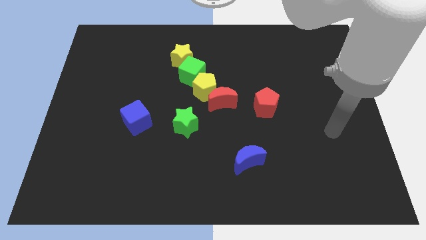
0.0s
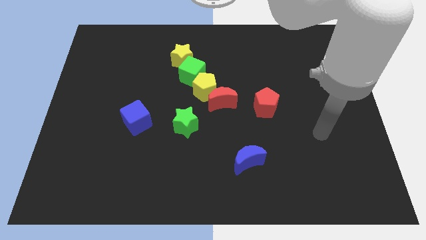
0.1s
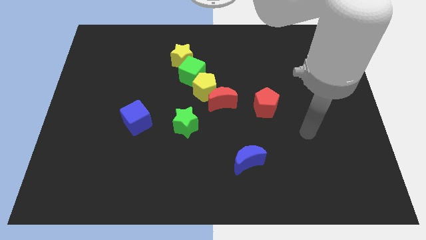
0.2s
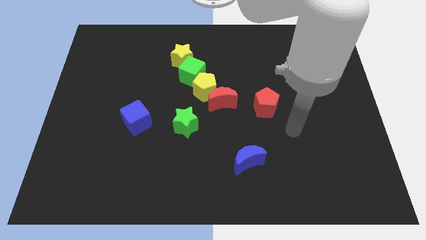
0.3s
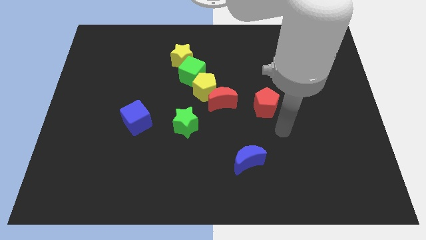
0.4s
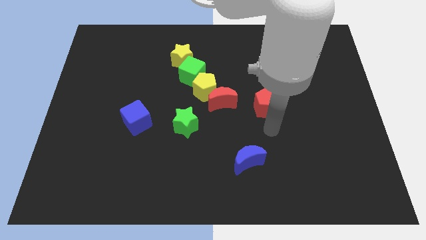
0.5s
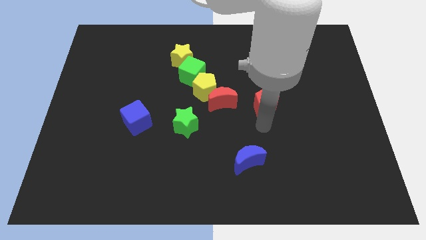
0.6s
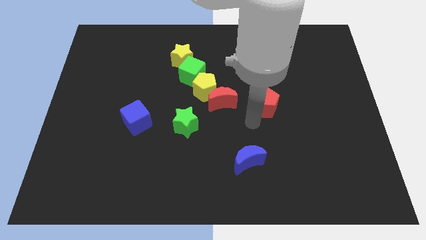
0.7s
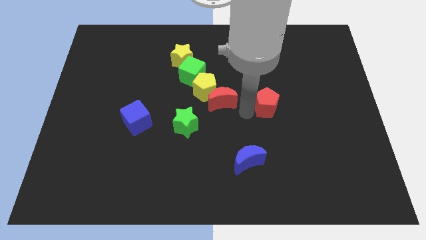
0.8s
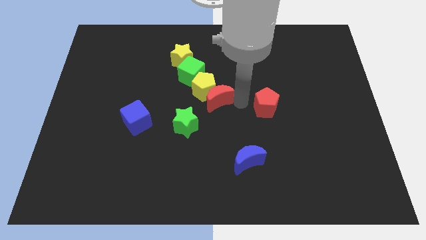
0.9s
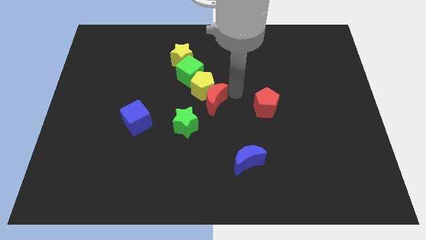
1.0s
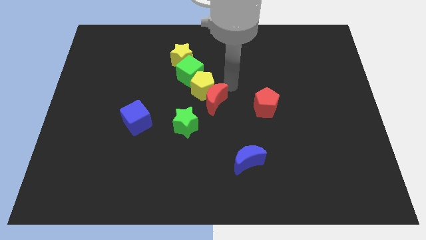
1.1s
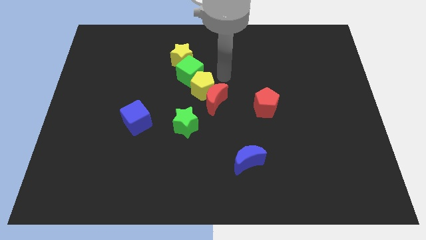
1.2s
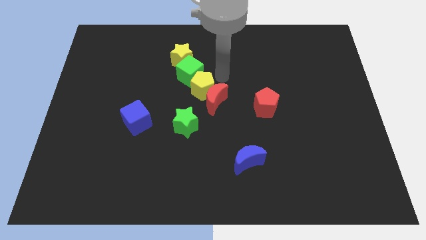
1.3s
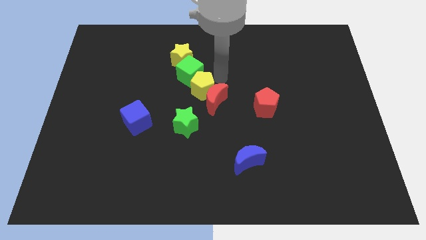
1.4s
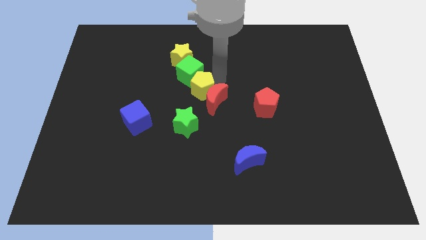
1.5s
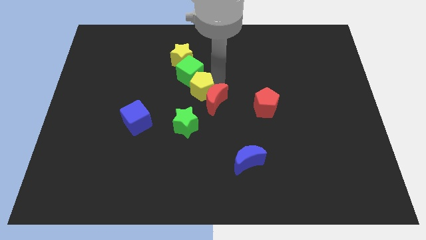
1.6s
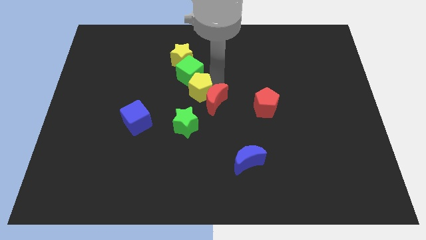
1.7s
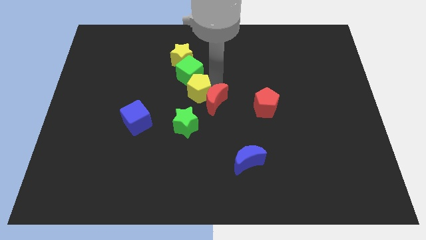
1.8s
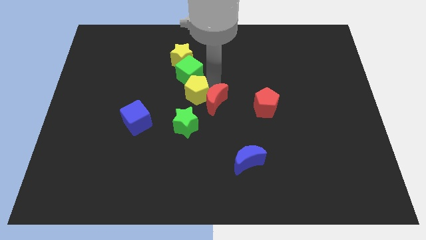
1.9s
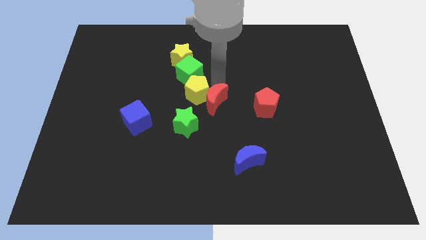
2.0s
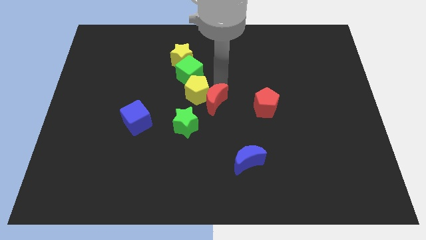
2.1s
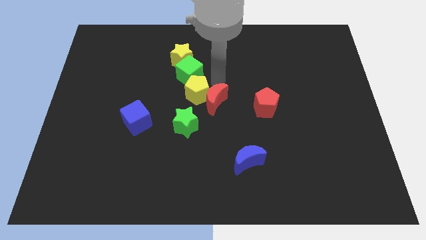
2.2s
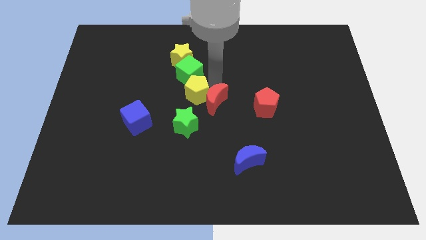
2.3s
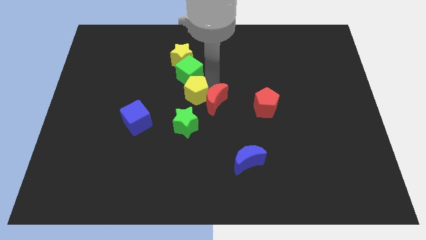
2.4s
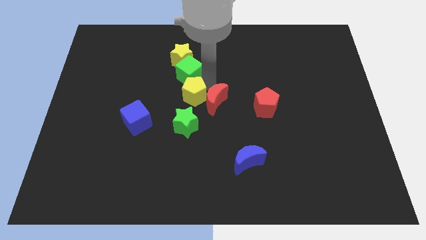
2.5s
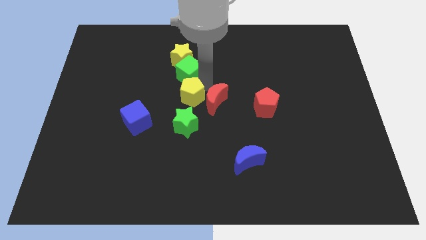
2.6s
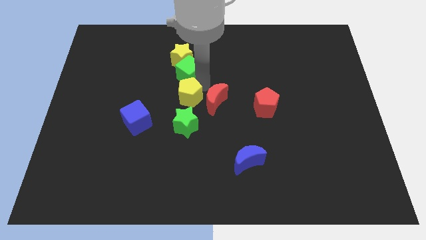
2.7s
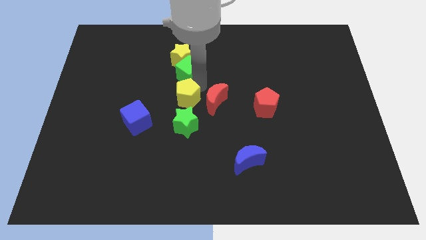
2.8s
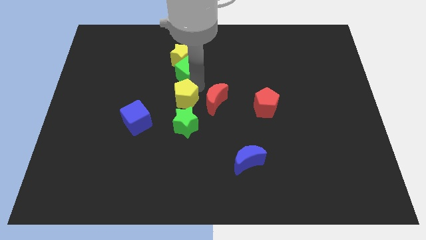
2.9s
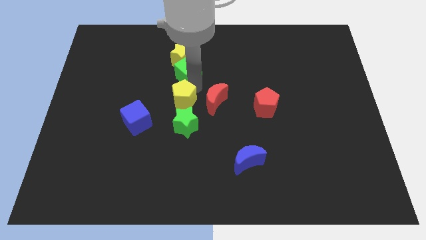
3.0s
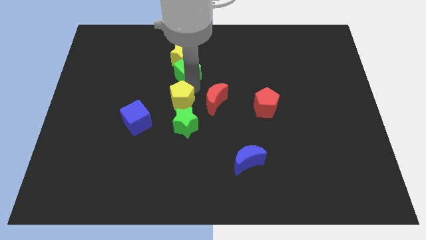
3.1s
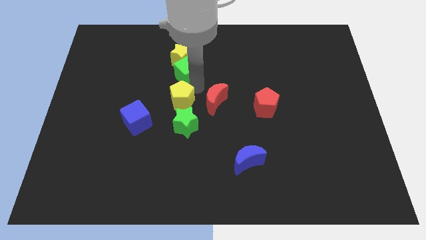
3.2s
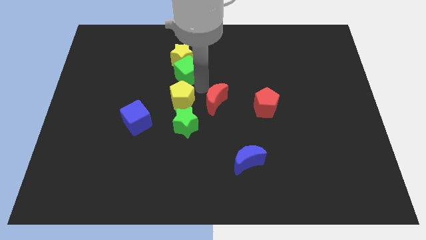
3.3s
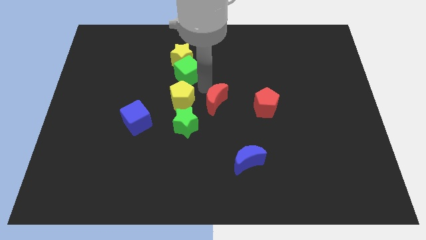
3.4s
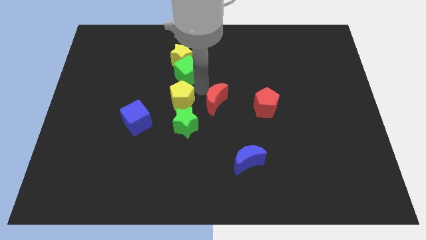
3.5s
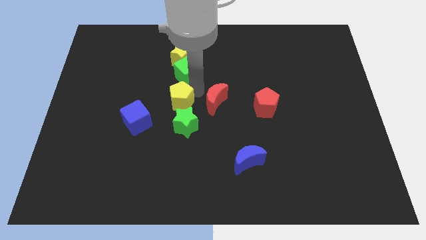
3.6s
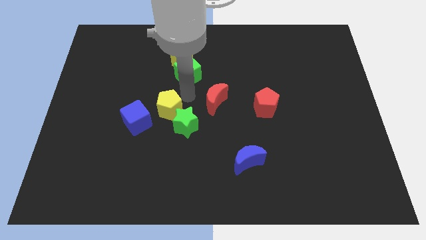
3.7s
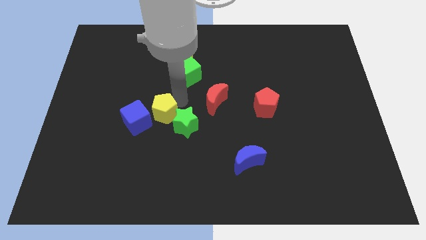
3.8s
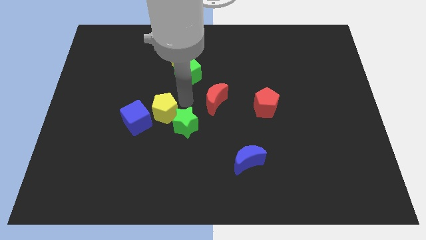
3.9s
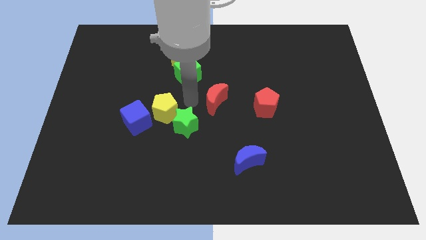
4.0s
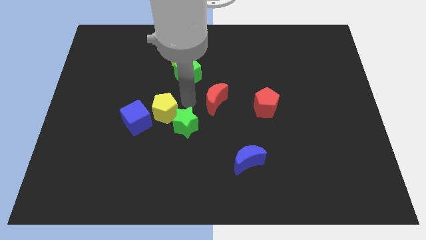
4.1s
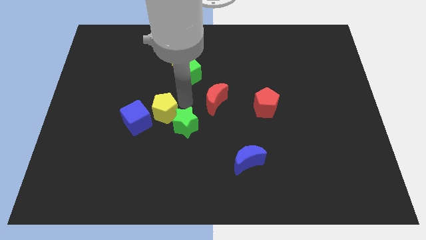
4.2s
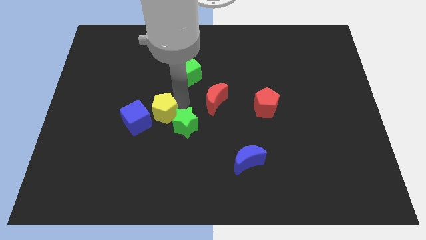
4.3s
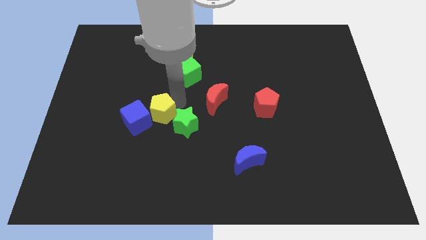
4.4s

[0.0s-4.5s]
push the yellow pentagon next to the blue cube

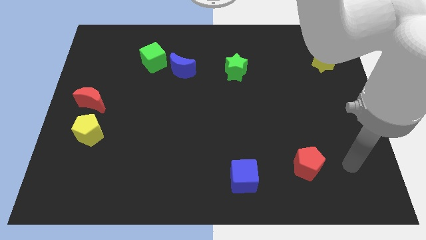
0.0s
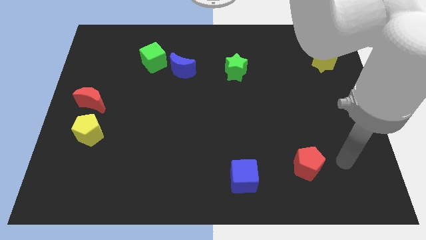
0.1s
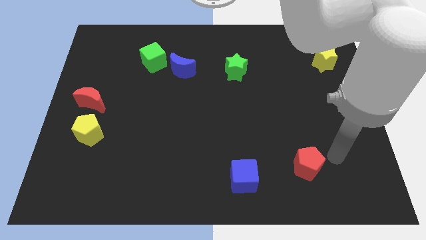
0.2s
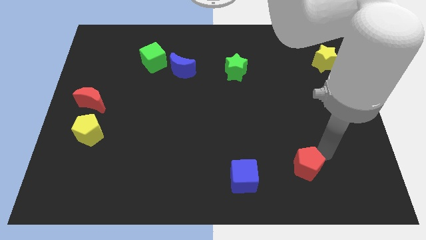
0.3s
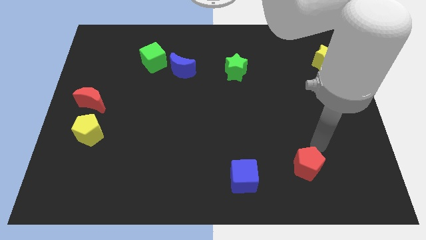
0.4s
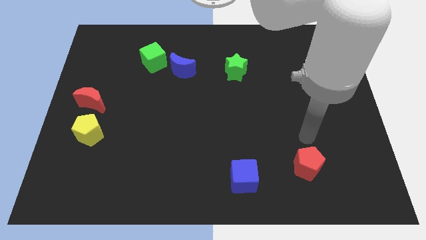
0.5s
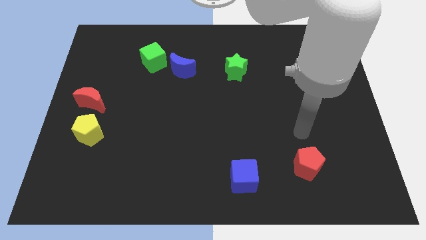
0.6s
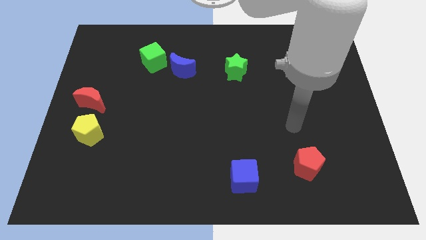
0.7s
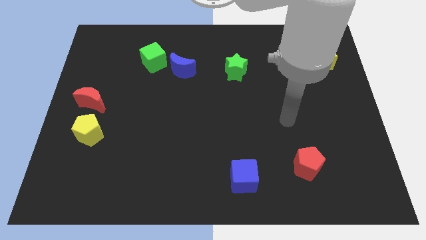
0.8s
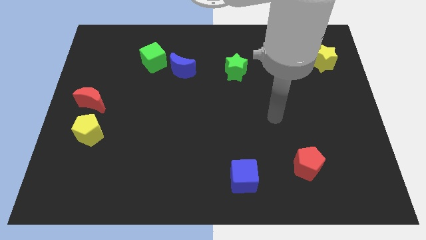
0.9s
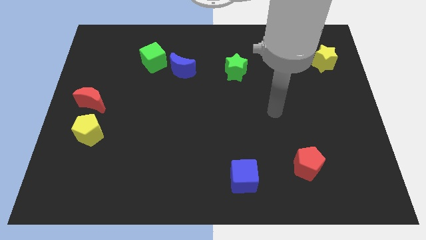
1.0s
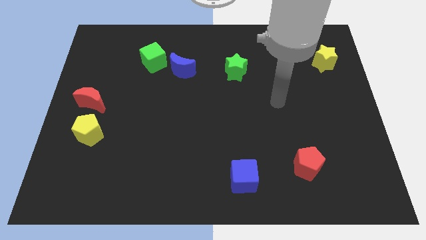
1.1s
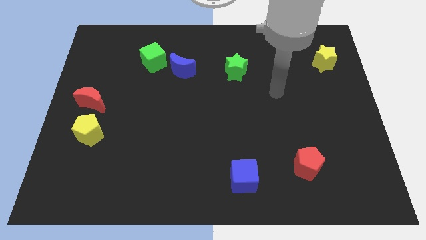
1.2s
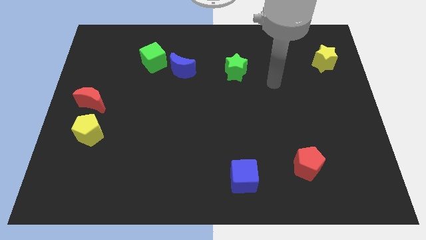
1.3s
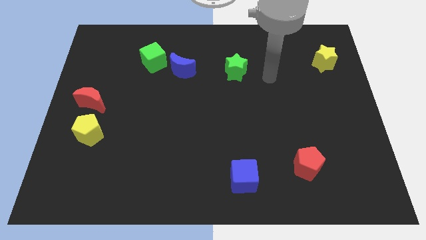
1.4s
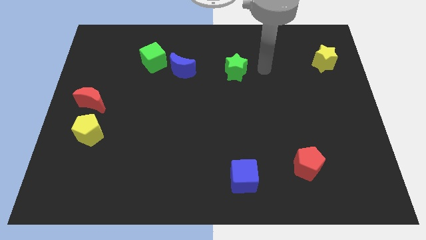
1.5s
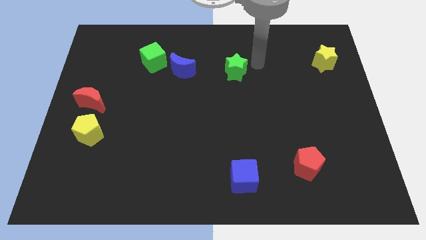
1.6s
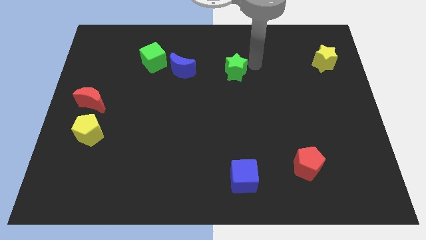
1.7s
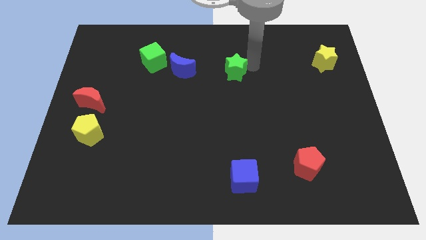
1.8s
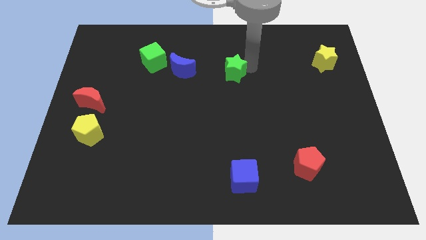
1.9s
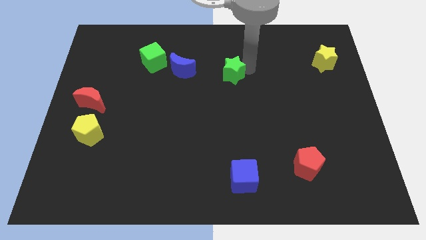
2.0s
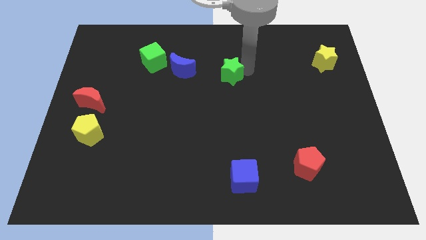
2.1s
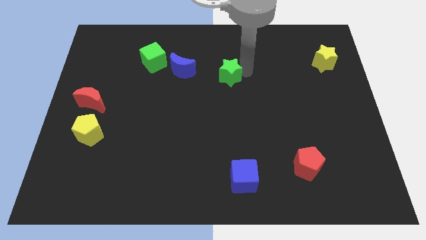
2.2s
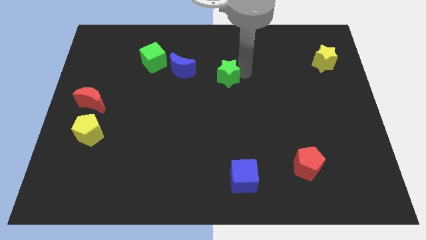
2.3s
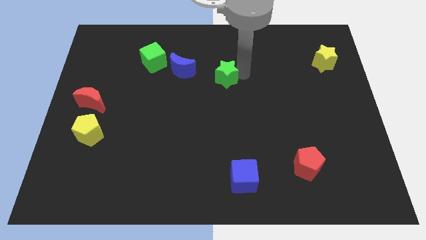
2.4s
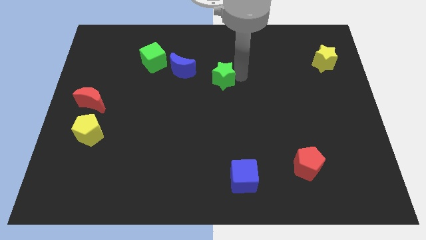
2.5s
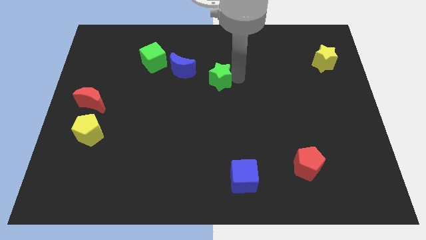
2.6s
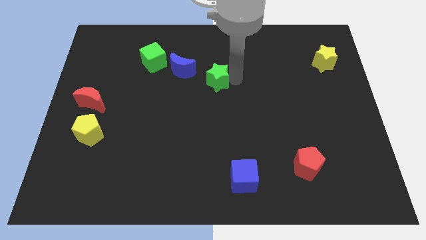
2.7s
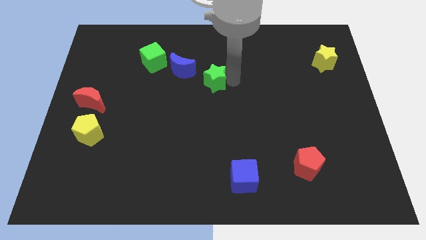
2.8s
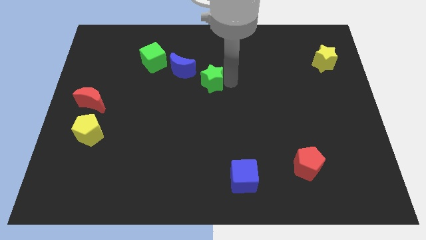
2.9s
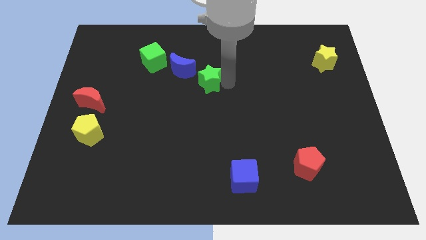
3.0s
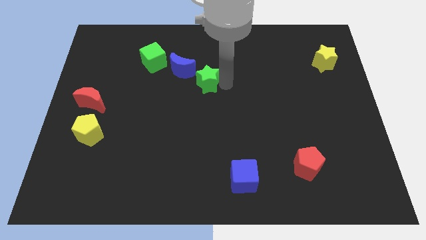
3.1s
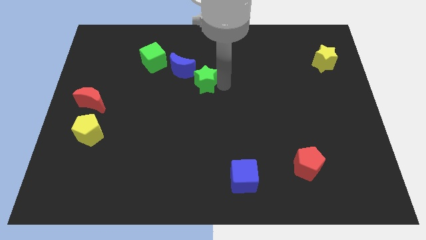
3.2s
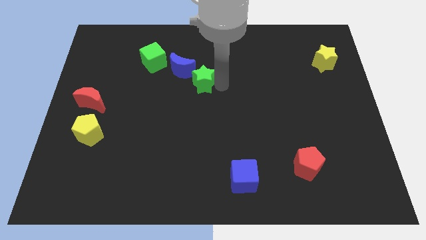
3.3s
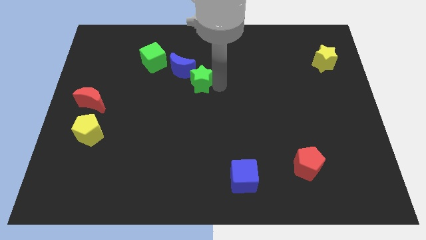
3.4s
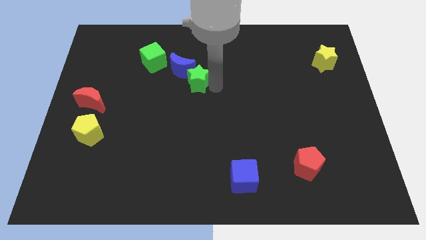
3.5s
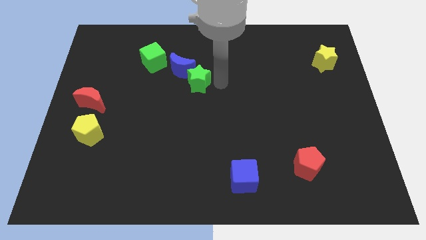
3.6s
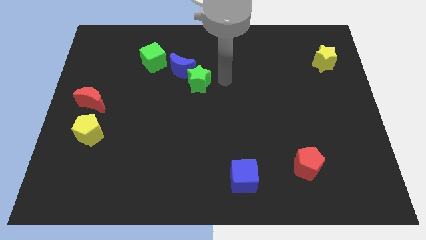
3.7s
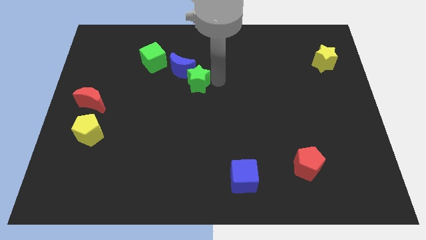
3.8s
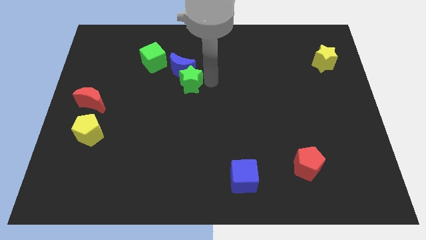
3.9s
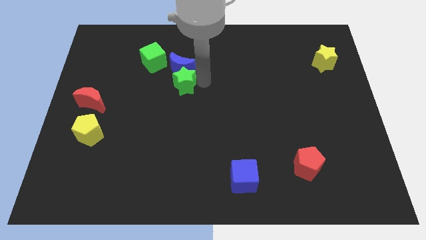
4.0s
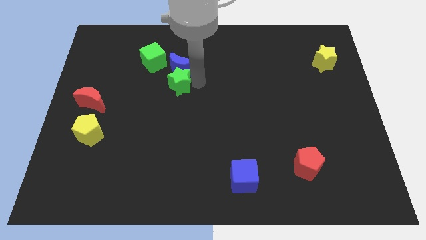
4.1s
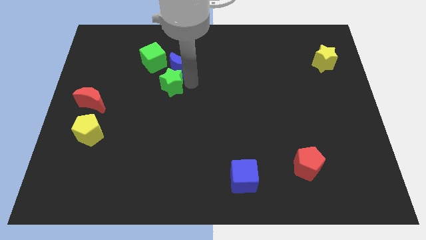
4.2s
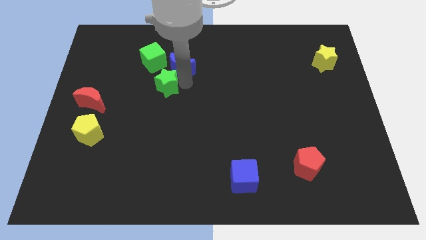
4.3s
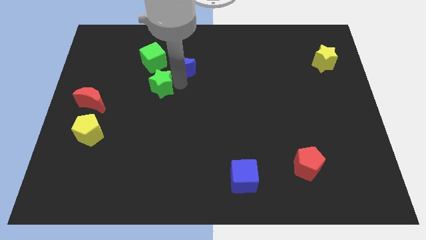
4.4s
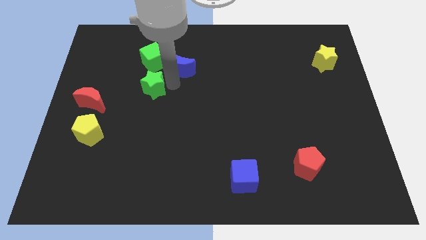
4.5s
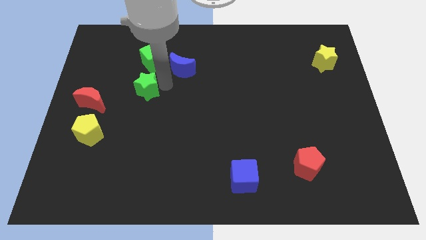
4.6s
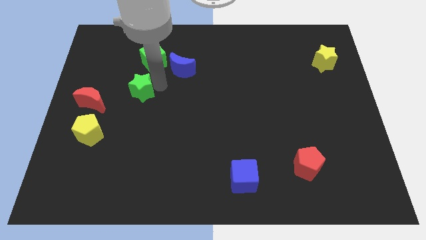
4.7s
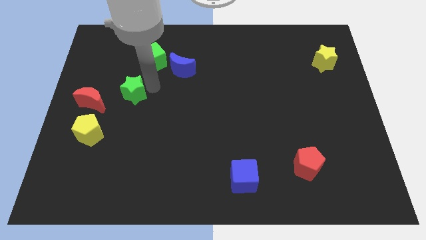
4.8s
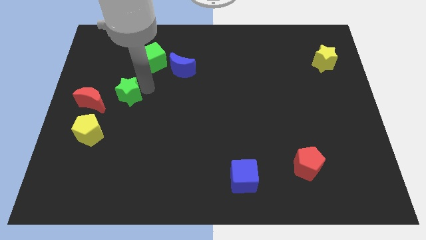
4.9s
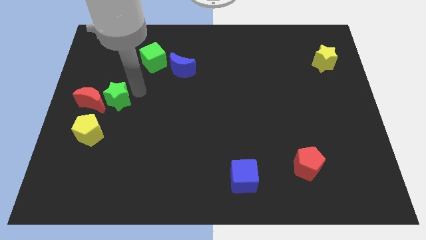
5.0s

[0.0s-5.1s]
slide the green star close to the red moon
